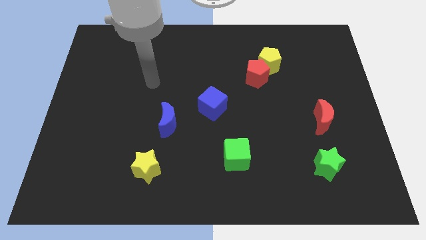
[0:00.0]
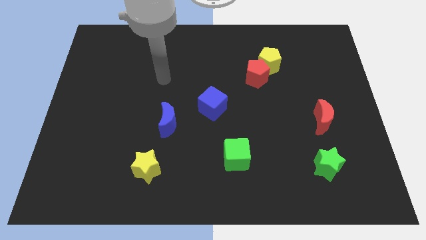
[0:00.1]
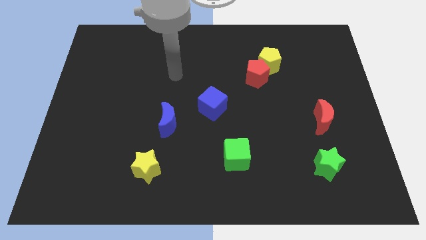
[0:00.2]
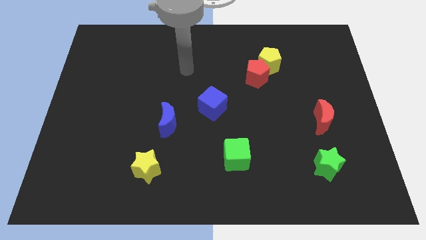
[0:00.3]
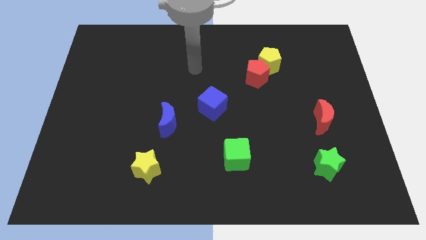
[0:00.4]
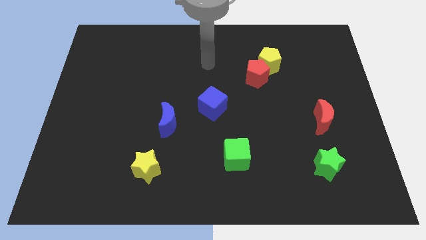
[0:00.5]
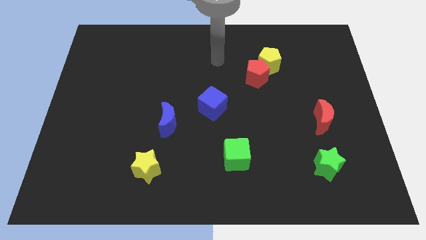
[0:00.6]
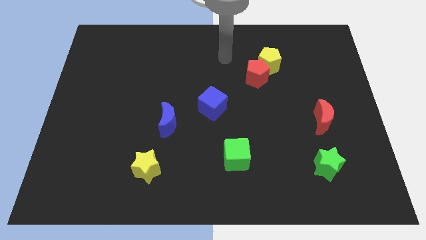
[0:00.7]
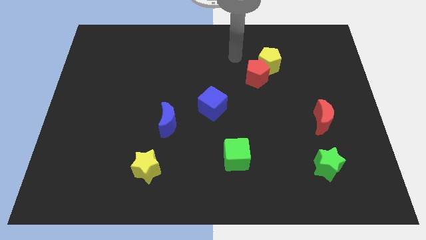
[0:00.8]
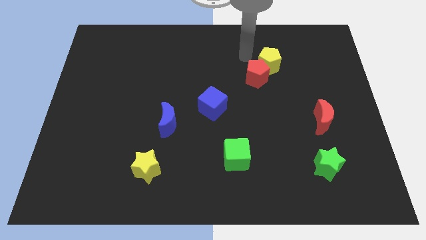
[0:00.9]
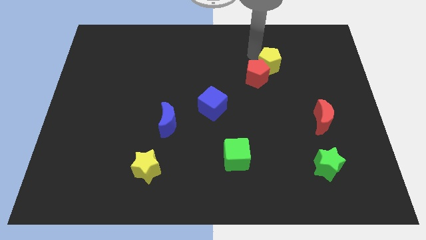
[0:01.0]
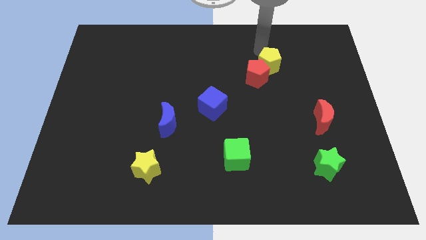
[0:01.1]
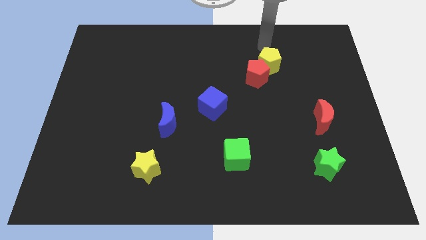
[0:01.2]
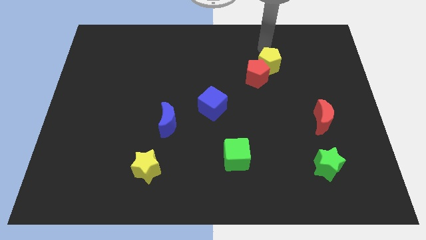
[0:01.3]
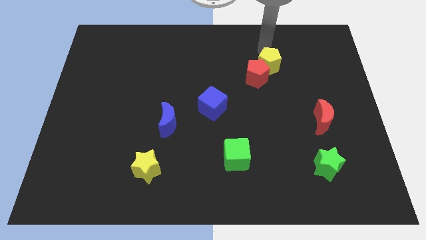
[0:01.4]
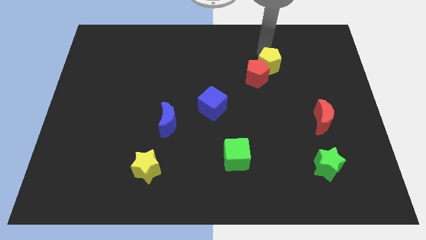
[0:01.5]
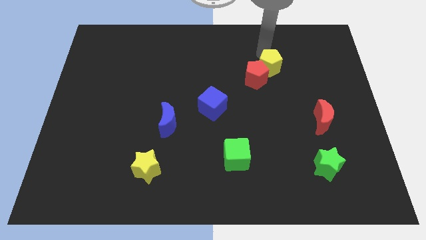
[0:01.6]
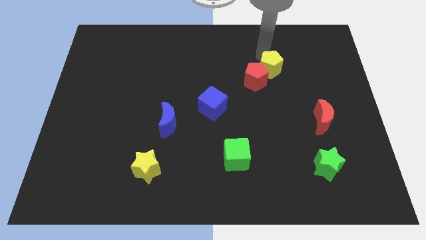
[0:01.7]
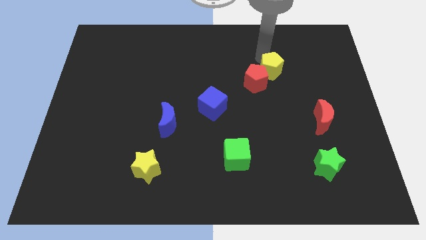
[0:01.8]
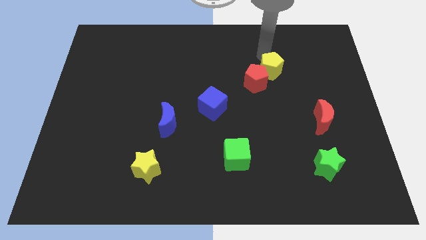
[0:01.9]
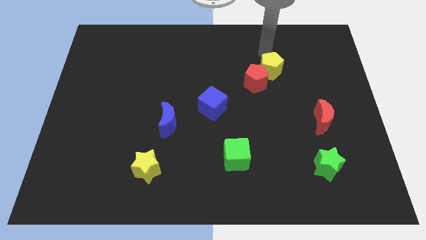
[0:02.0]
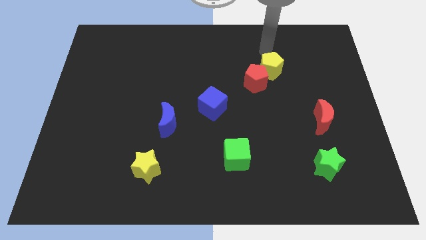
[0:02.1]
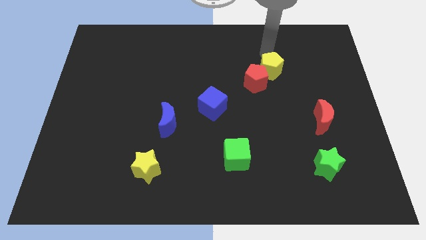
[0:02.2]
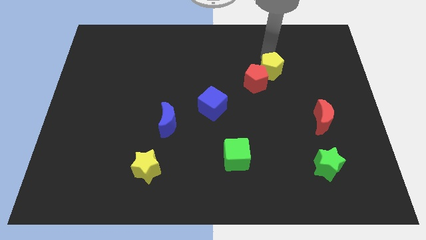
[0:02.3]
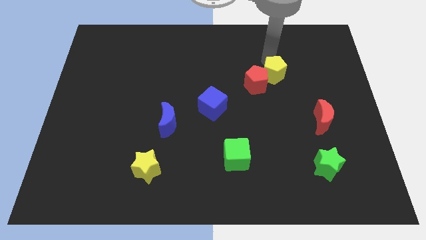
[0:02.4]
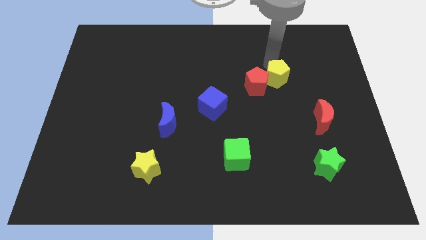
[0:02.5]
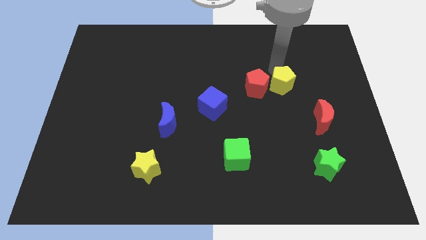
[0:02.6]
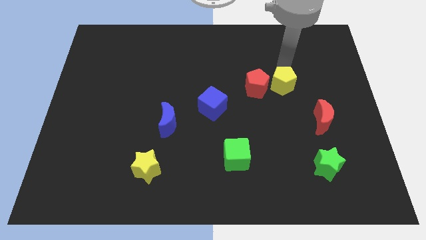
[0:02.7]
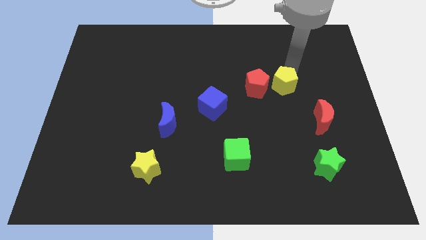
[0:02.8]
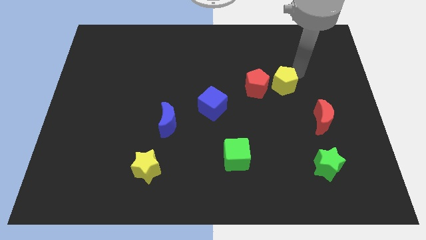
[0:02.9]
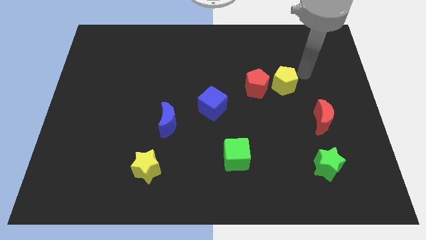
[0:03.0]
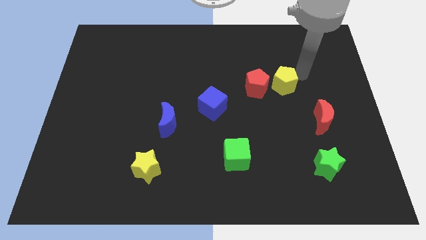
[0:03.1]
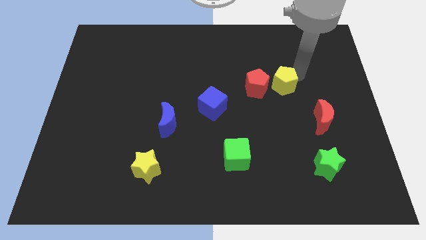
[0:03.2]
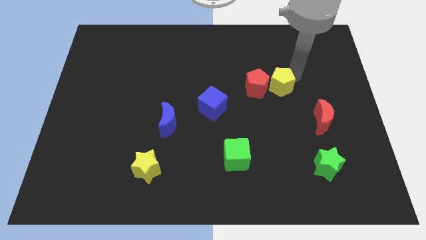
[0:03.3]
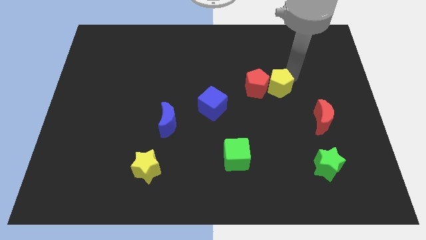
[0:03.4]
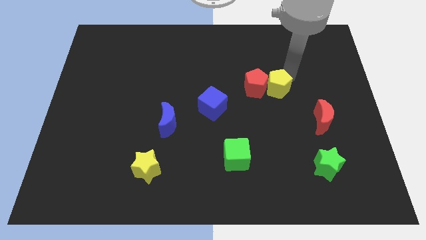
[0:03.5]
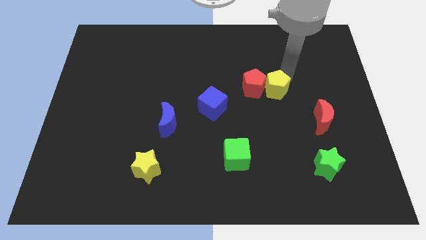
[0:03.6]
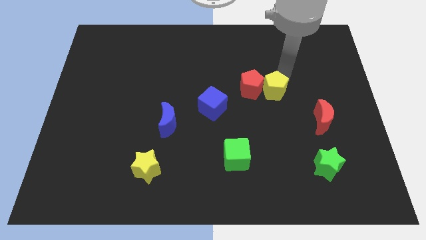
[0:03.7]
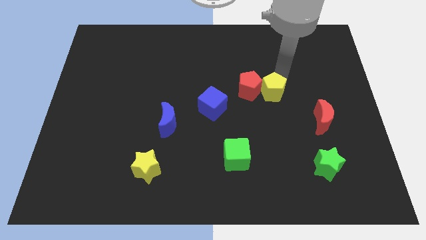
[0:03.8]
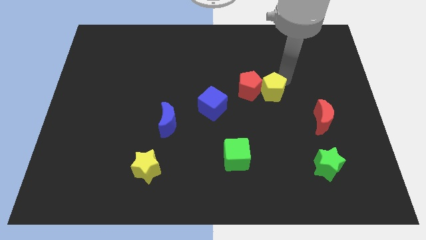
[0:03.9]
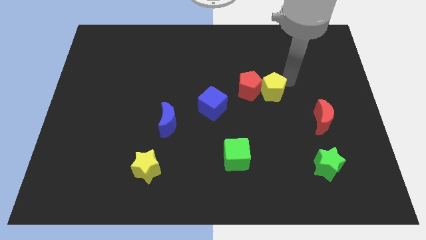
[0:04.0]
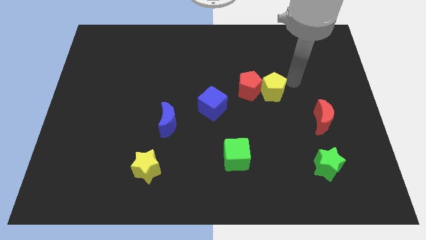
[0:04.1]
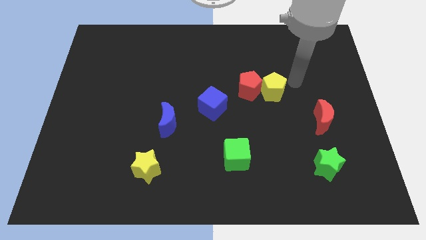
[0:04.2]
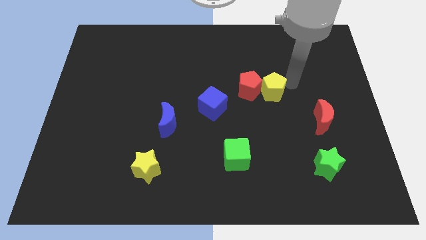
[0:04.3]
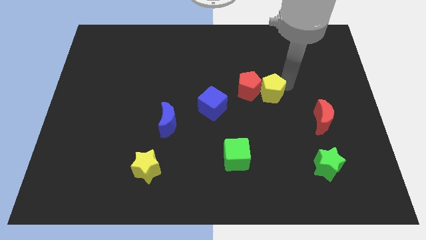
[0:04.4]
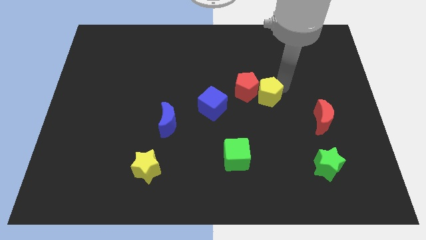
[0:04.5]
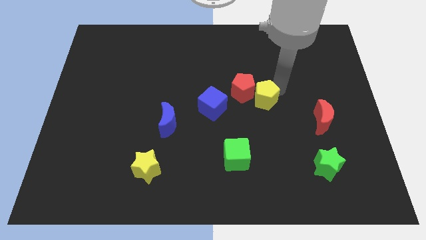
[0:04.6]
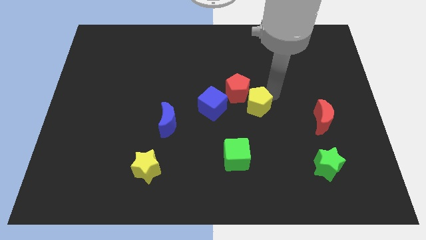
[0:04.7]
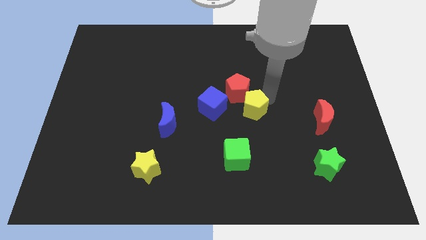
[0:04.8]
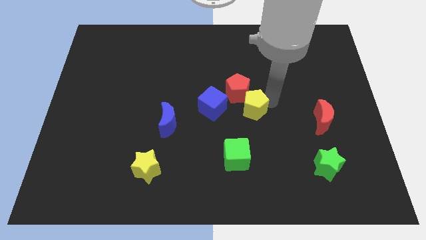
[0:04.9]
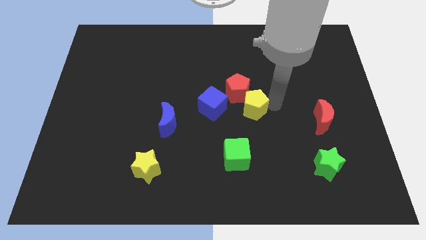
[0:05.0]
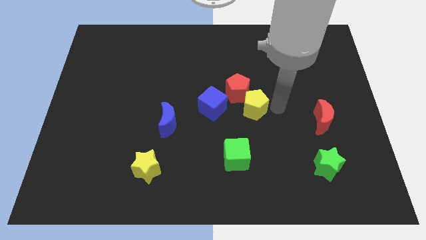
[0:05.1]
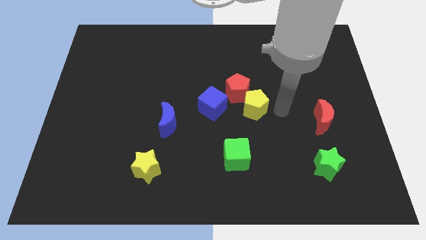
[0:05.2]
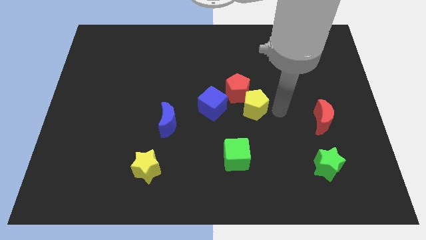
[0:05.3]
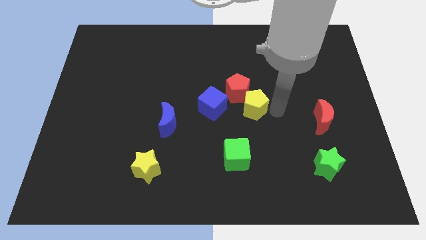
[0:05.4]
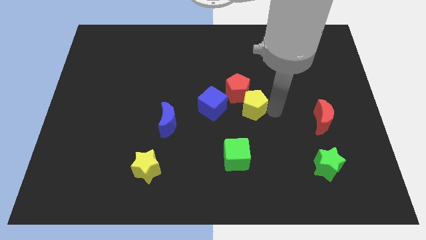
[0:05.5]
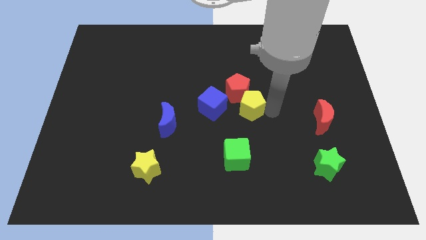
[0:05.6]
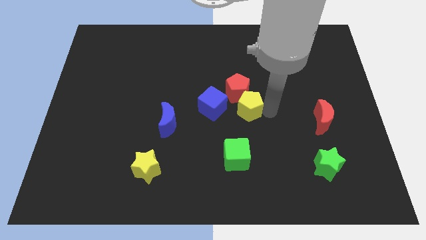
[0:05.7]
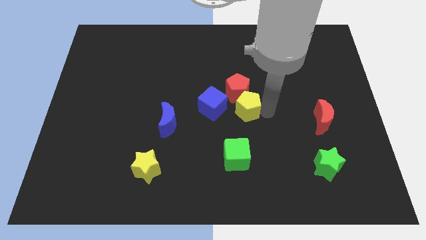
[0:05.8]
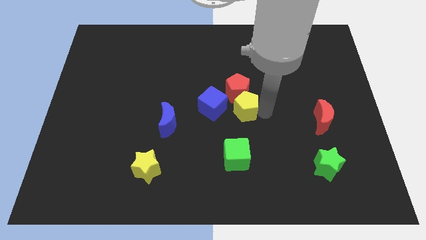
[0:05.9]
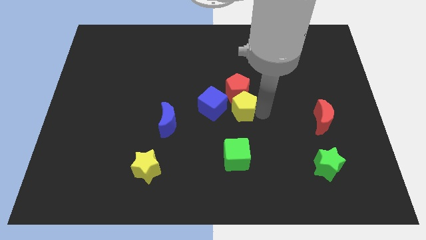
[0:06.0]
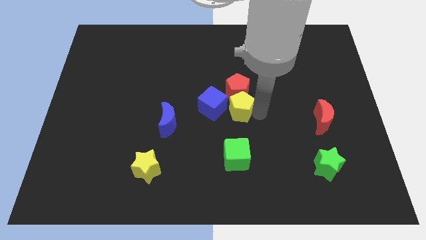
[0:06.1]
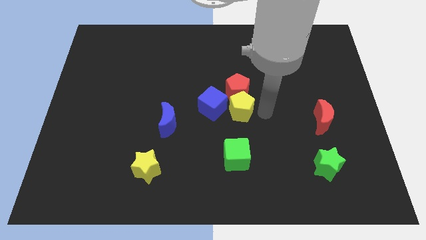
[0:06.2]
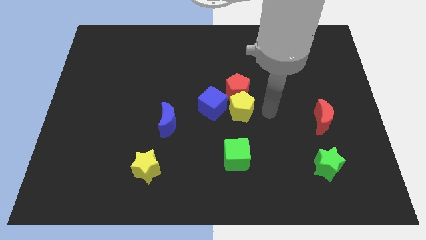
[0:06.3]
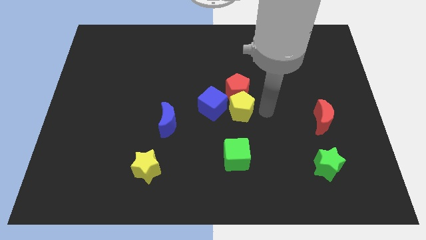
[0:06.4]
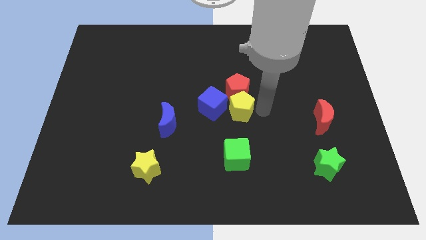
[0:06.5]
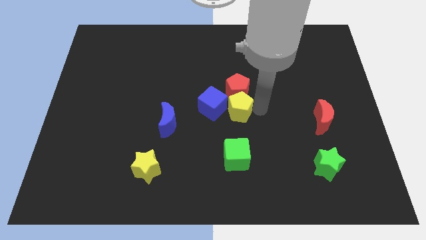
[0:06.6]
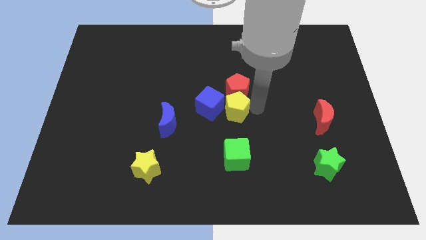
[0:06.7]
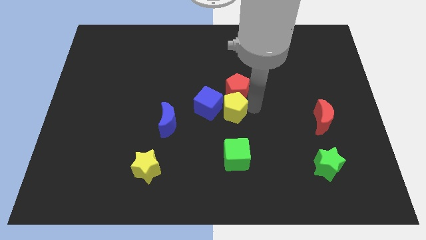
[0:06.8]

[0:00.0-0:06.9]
slide the yellow pentagon towards the blue cube
